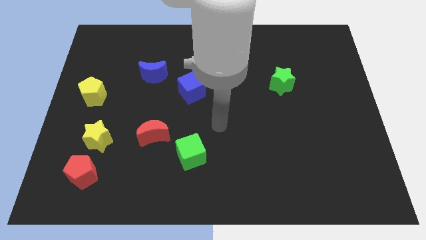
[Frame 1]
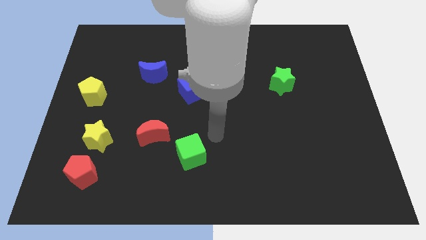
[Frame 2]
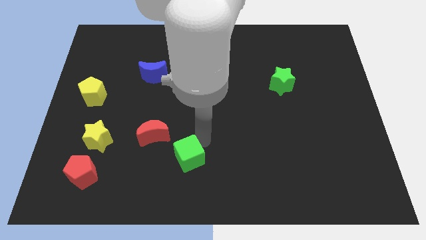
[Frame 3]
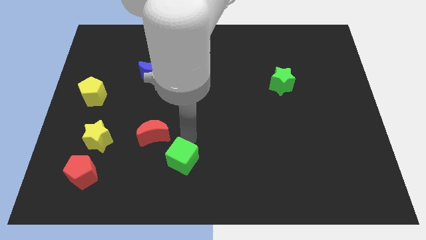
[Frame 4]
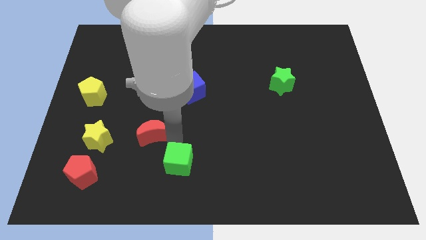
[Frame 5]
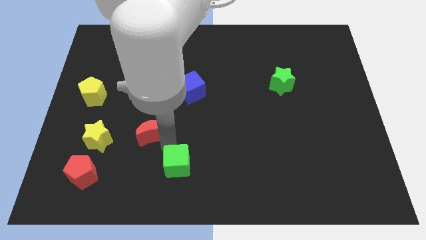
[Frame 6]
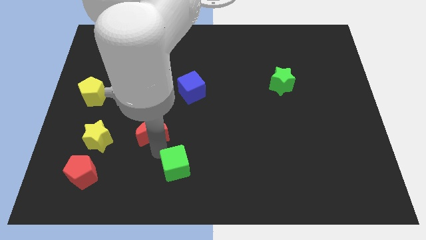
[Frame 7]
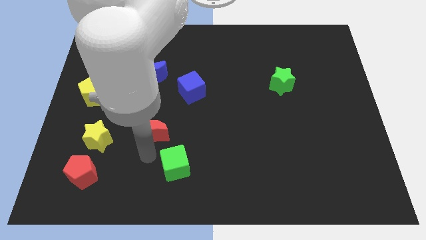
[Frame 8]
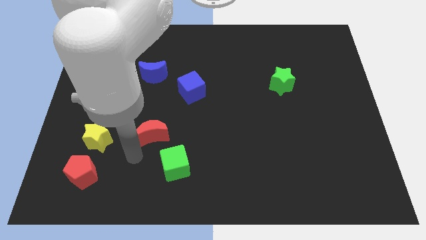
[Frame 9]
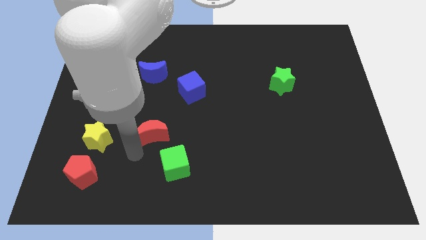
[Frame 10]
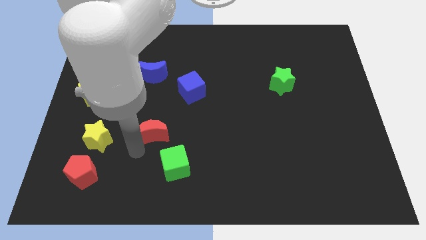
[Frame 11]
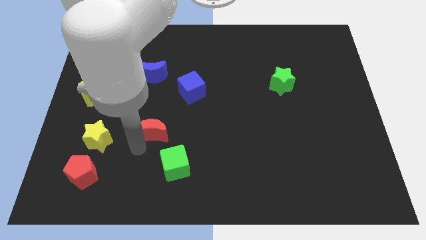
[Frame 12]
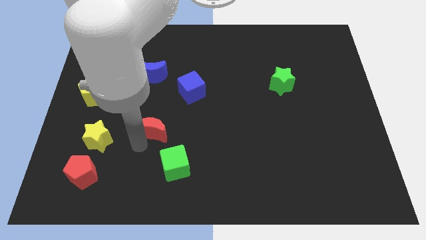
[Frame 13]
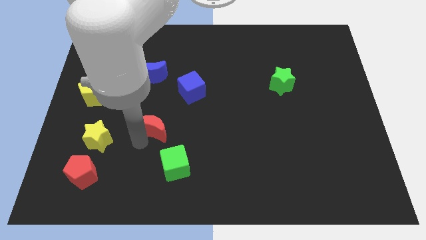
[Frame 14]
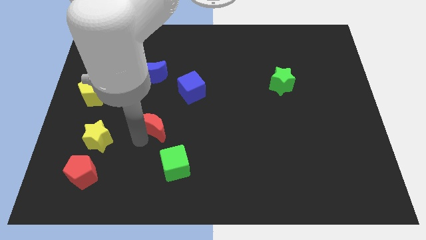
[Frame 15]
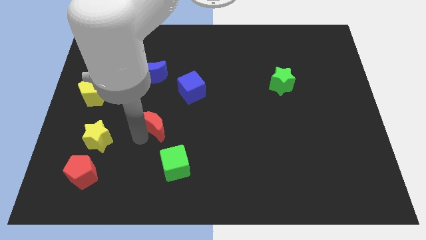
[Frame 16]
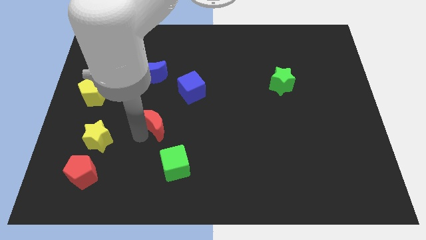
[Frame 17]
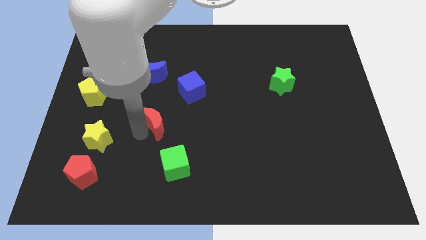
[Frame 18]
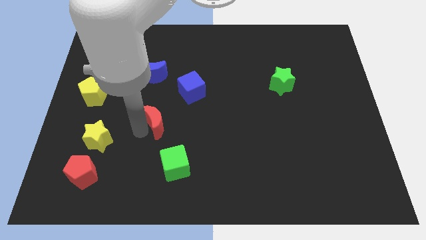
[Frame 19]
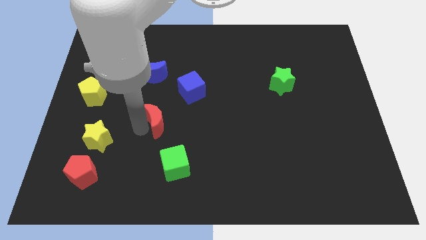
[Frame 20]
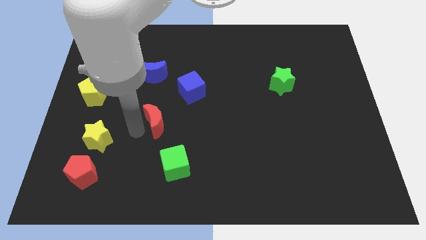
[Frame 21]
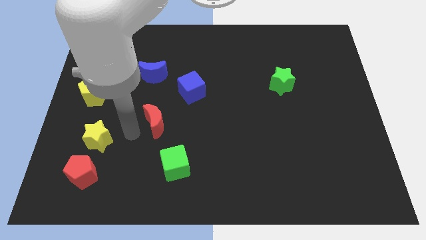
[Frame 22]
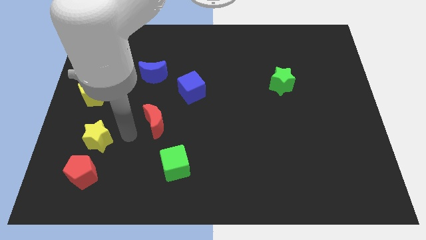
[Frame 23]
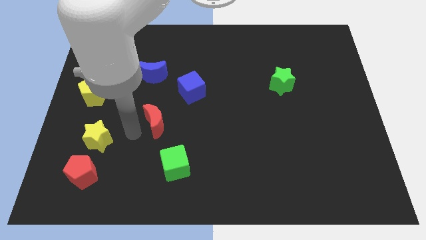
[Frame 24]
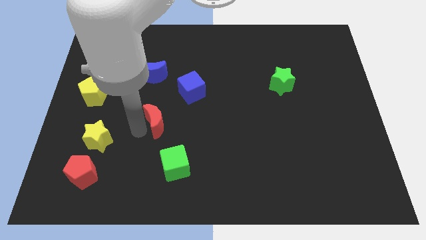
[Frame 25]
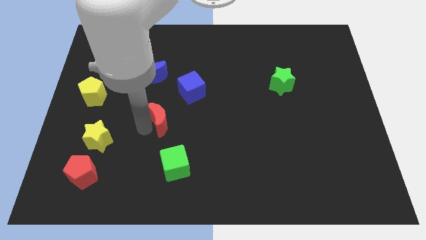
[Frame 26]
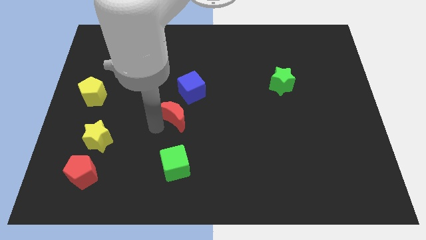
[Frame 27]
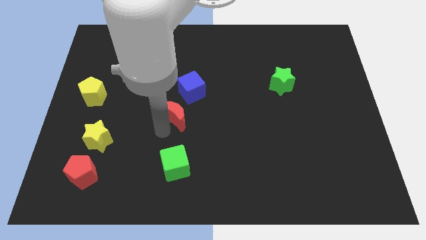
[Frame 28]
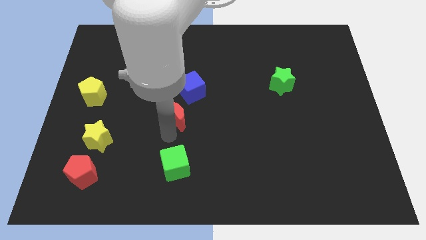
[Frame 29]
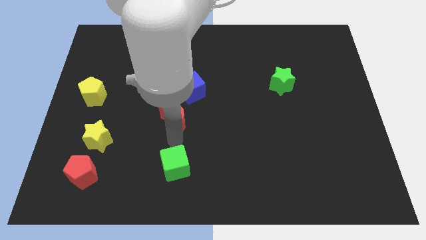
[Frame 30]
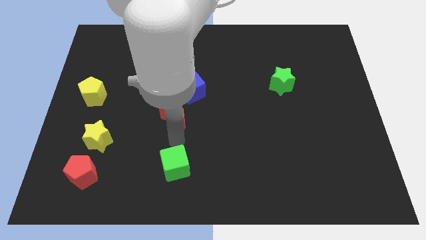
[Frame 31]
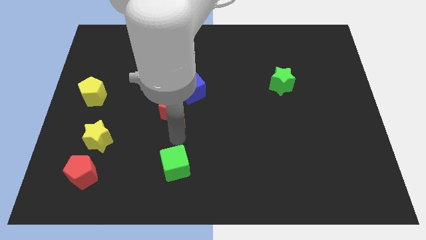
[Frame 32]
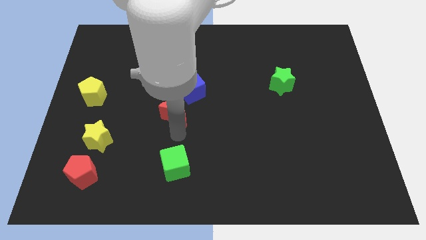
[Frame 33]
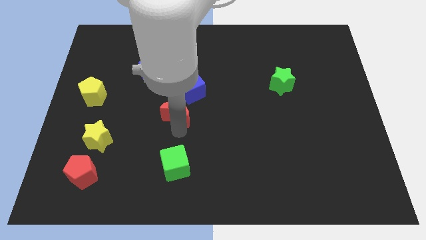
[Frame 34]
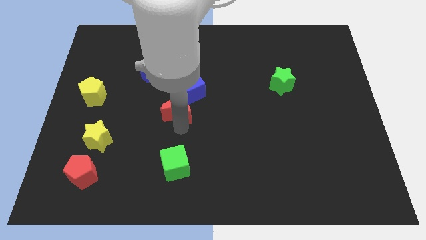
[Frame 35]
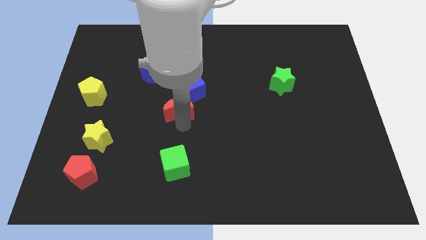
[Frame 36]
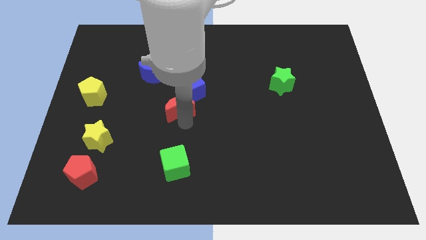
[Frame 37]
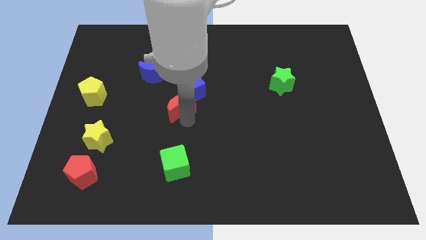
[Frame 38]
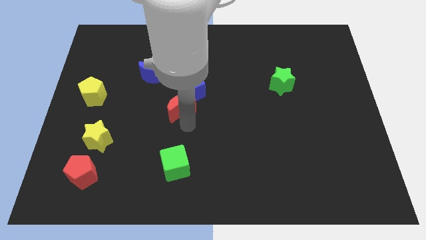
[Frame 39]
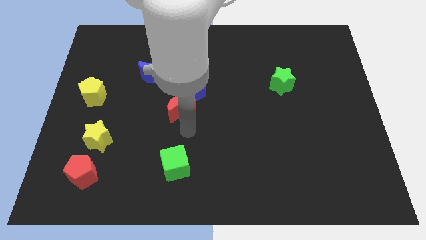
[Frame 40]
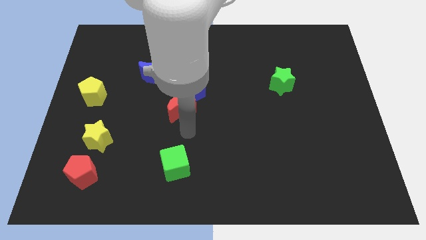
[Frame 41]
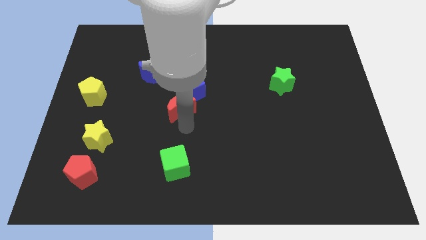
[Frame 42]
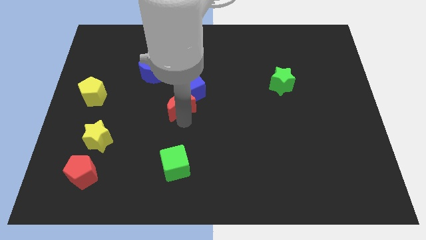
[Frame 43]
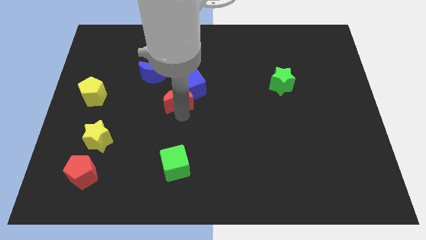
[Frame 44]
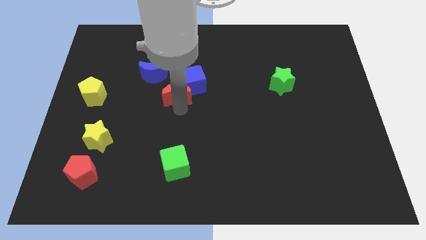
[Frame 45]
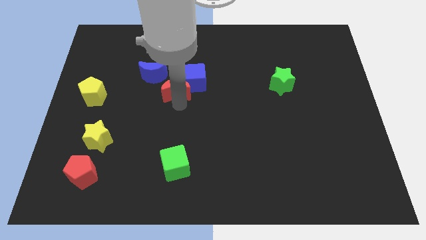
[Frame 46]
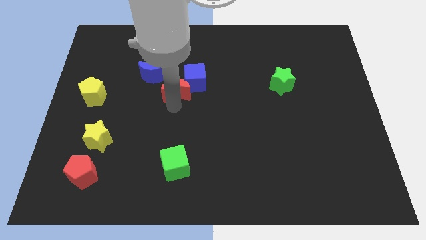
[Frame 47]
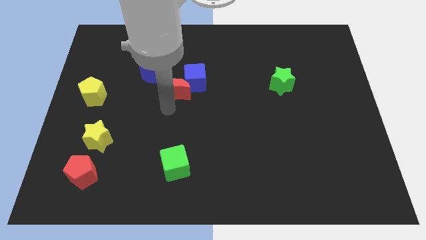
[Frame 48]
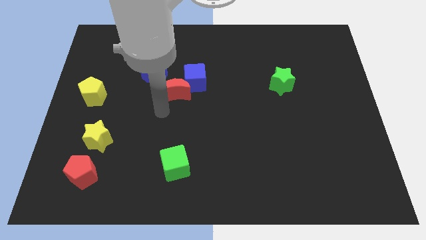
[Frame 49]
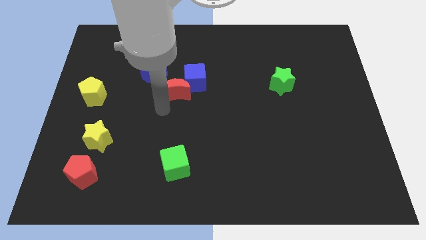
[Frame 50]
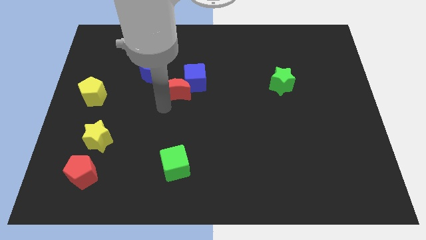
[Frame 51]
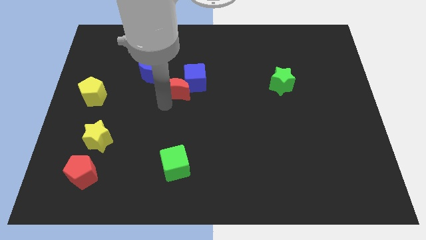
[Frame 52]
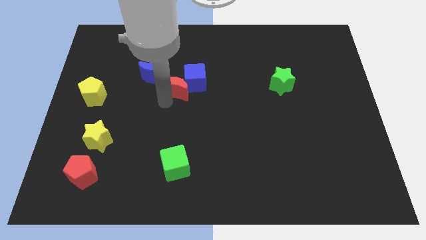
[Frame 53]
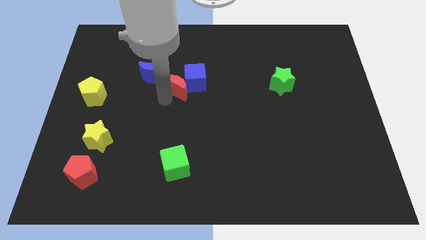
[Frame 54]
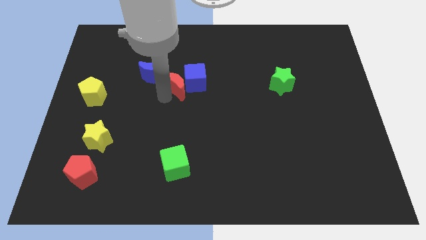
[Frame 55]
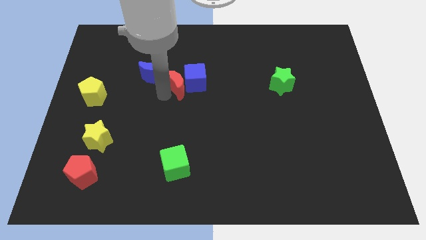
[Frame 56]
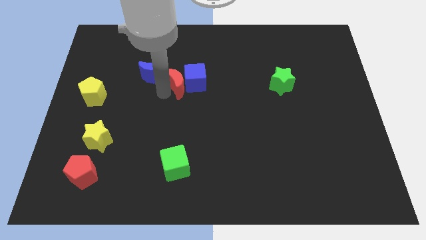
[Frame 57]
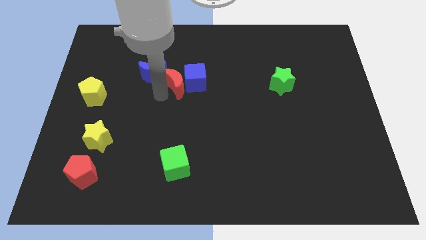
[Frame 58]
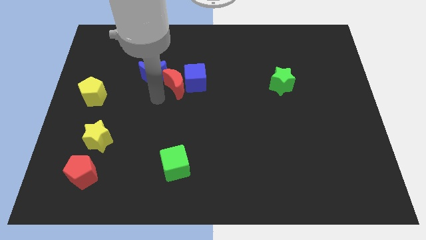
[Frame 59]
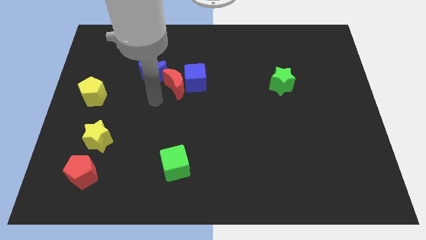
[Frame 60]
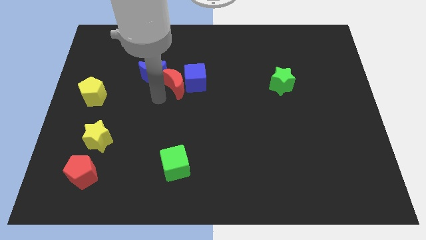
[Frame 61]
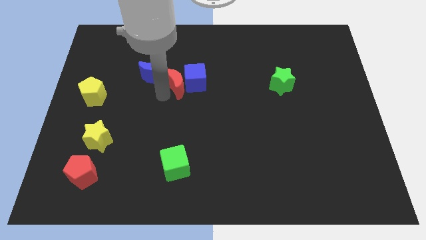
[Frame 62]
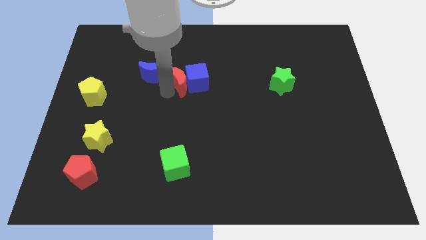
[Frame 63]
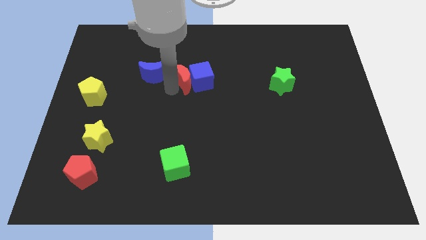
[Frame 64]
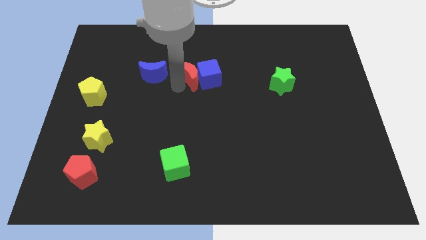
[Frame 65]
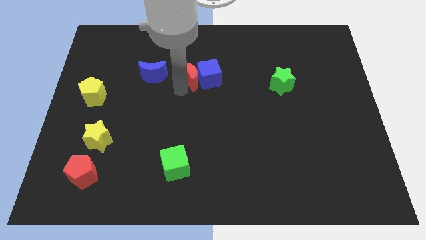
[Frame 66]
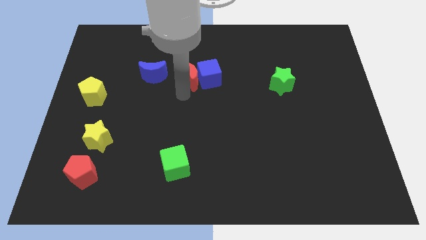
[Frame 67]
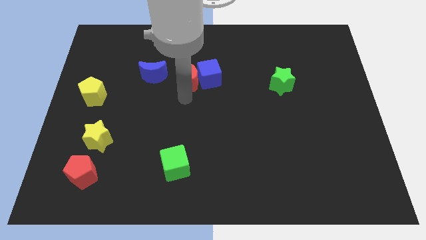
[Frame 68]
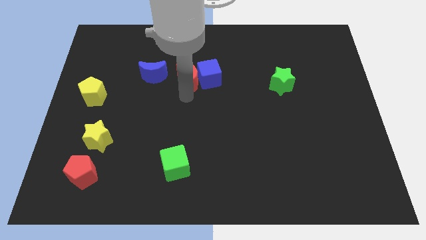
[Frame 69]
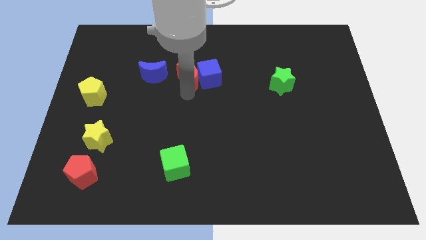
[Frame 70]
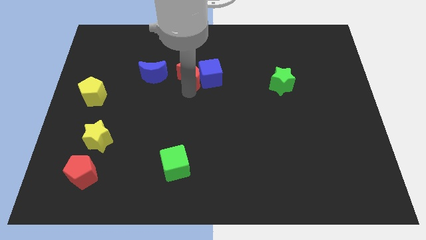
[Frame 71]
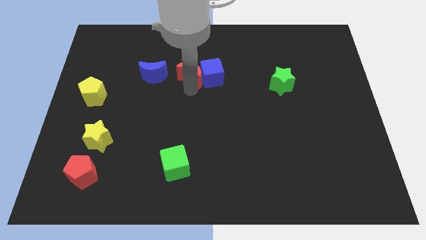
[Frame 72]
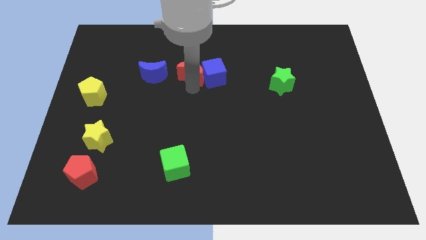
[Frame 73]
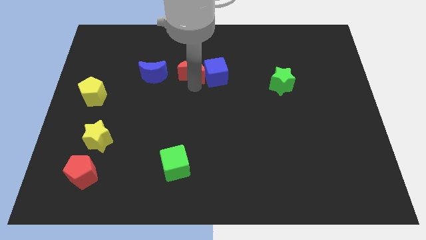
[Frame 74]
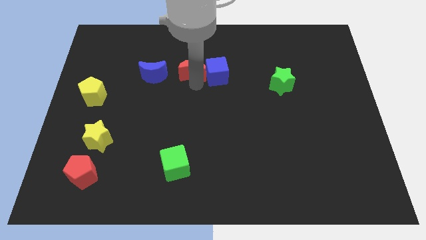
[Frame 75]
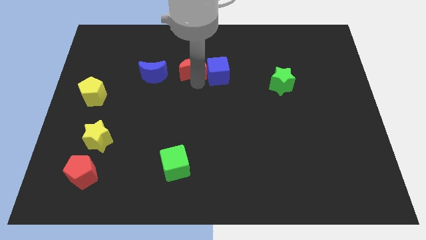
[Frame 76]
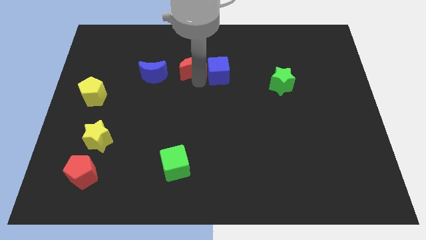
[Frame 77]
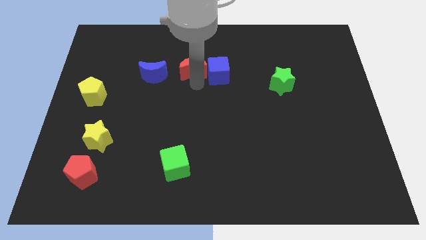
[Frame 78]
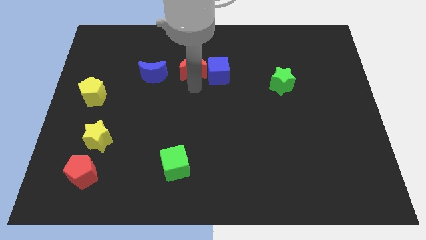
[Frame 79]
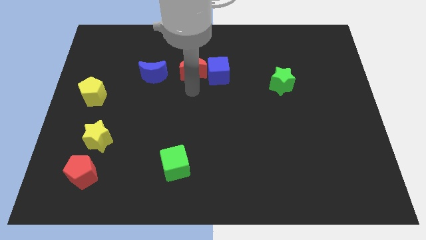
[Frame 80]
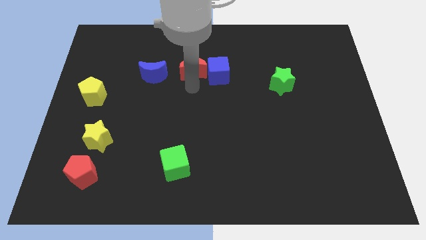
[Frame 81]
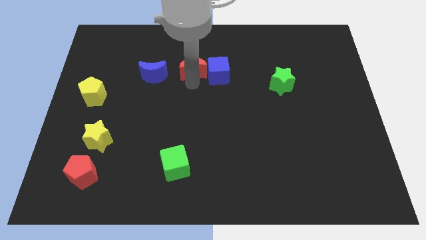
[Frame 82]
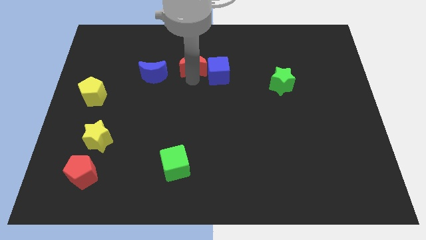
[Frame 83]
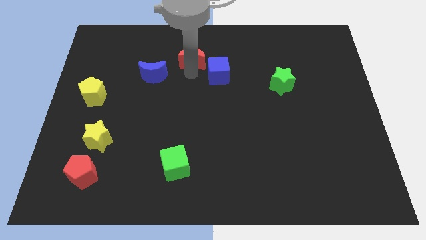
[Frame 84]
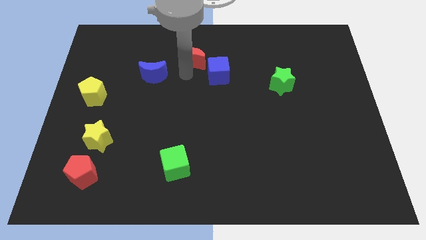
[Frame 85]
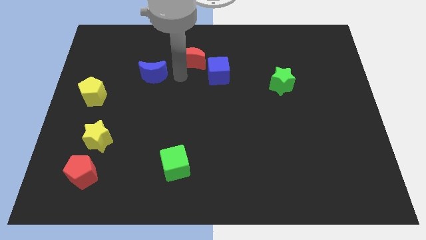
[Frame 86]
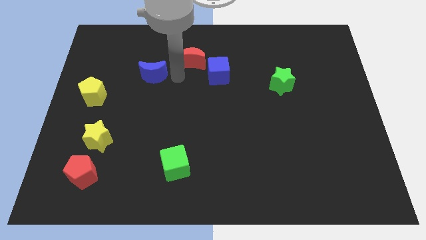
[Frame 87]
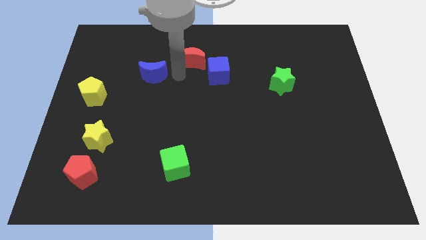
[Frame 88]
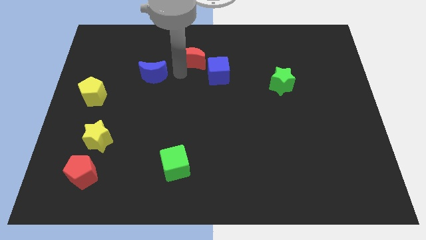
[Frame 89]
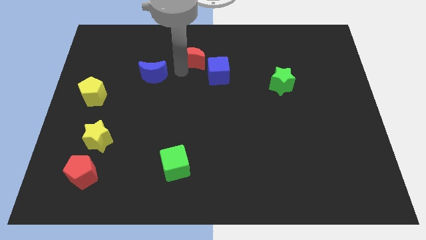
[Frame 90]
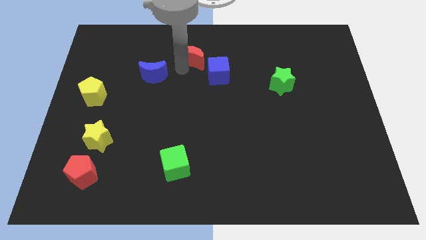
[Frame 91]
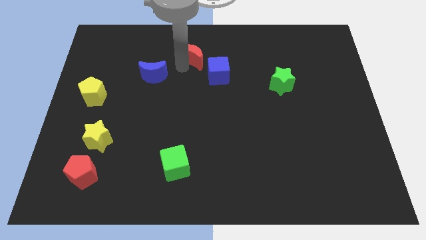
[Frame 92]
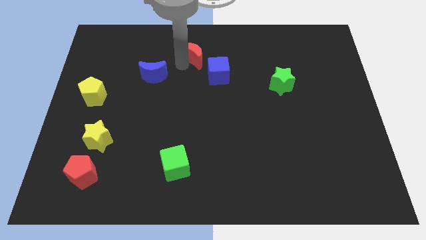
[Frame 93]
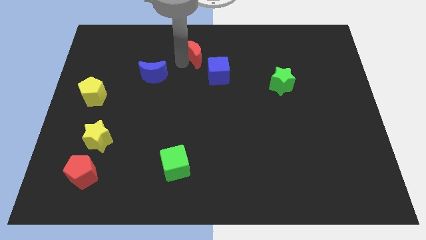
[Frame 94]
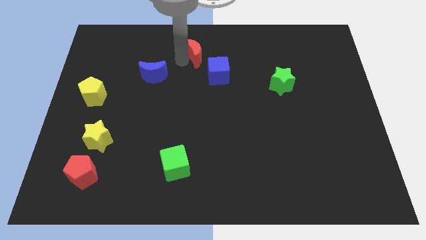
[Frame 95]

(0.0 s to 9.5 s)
push the red moon to the towards your base
